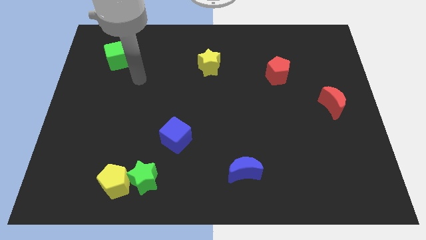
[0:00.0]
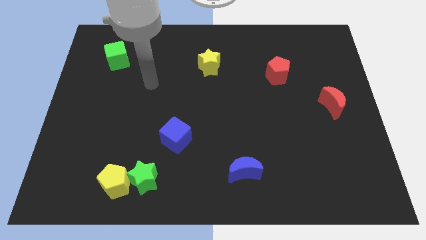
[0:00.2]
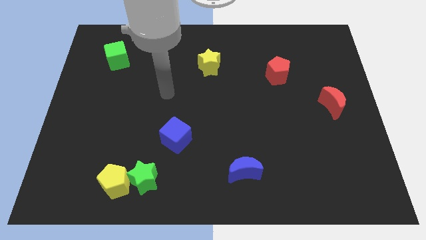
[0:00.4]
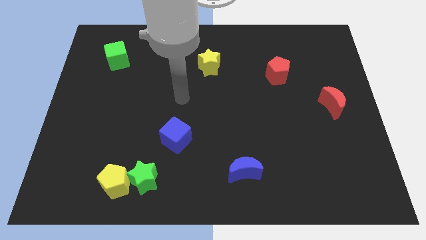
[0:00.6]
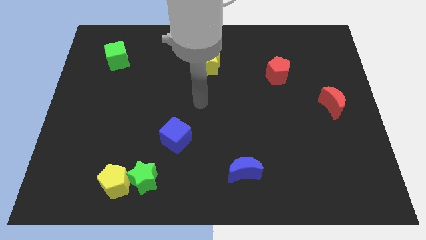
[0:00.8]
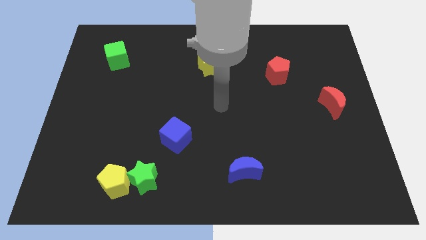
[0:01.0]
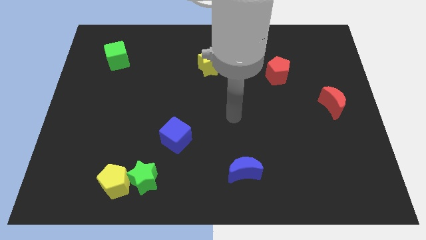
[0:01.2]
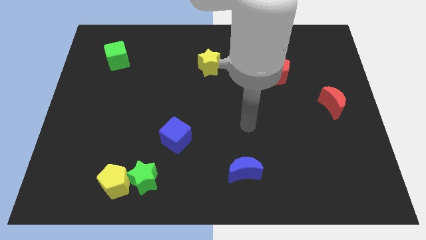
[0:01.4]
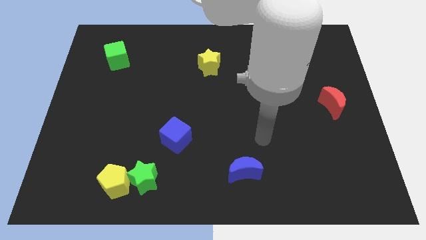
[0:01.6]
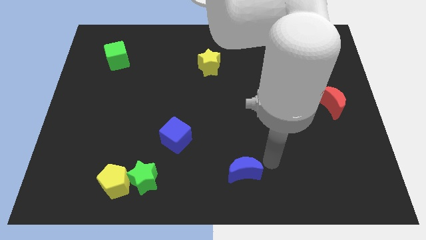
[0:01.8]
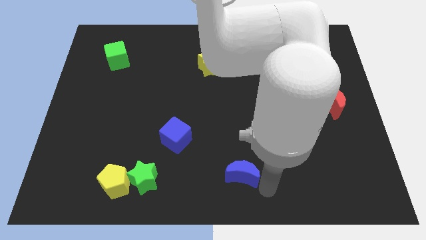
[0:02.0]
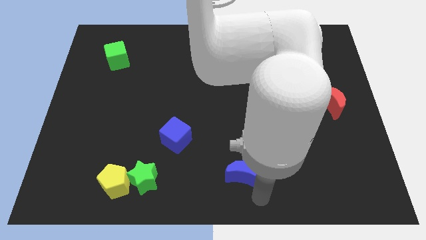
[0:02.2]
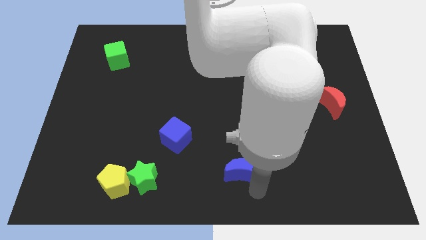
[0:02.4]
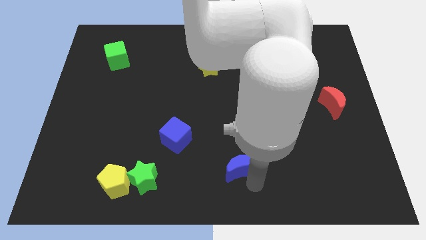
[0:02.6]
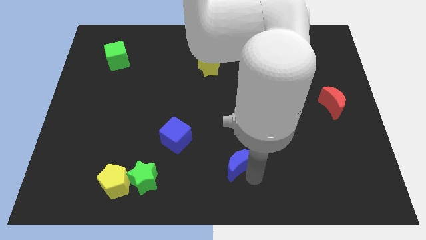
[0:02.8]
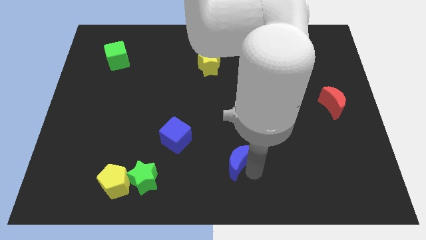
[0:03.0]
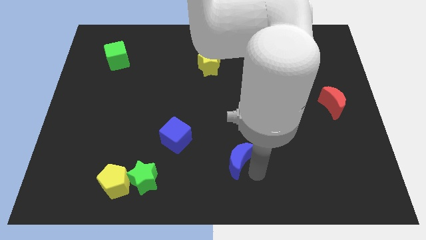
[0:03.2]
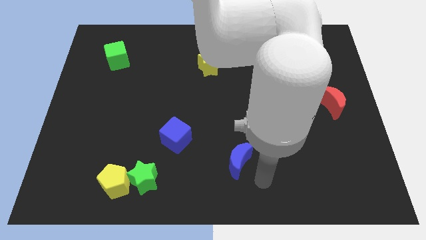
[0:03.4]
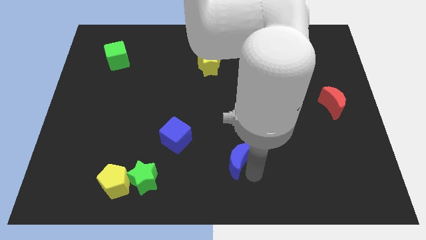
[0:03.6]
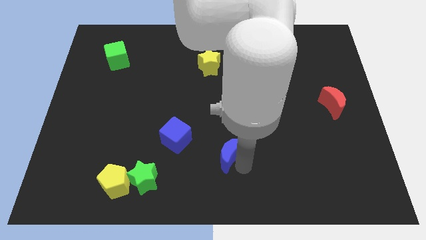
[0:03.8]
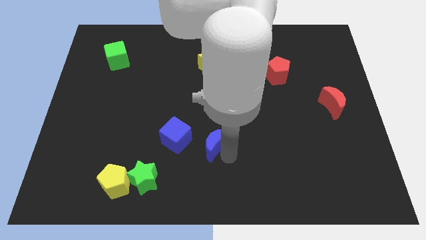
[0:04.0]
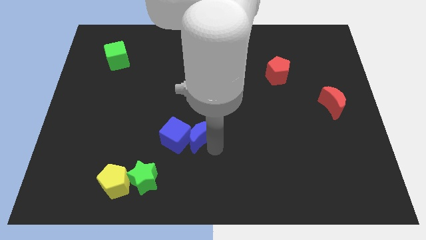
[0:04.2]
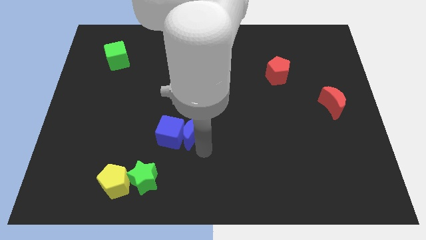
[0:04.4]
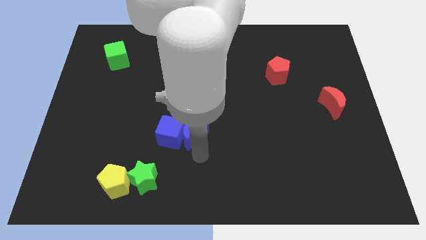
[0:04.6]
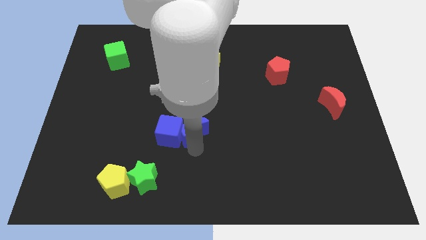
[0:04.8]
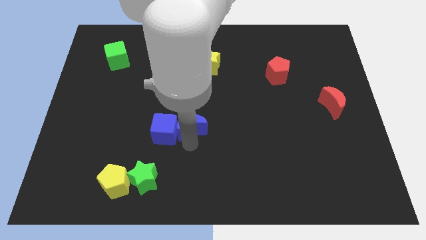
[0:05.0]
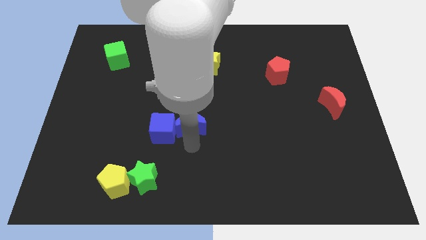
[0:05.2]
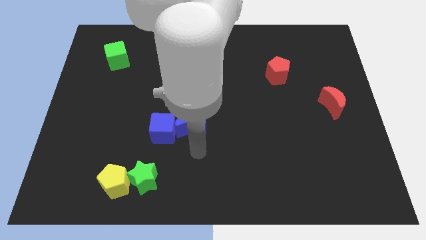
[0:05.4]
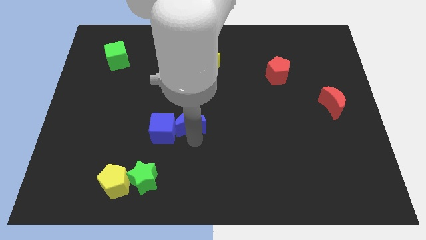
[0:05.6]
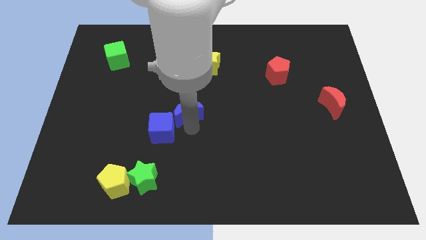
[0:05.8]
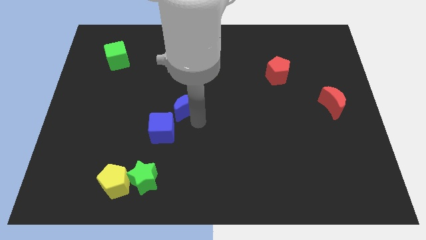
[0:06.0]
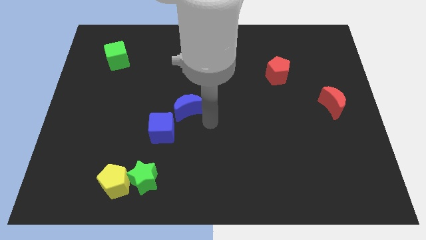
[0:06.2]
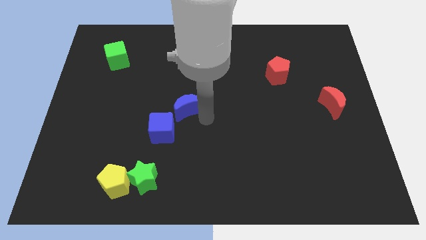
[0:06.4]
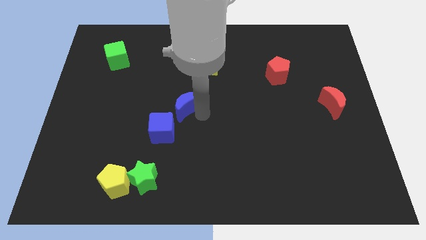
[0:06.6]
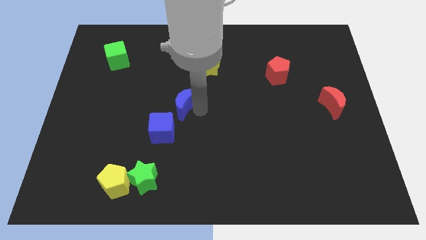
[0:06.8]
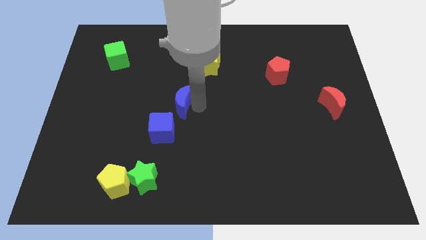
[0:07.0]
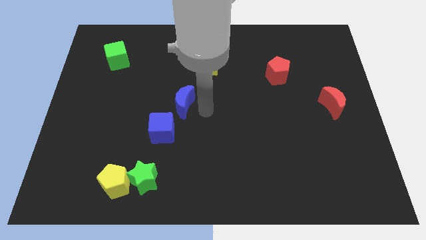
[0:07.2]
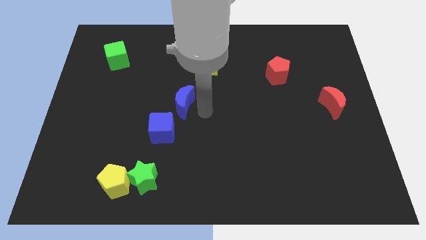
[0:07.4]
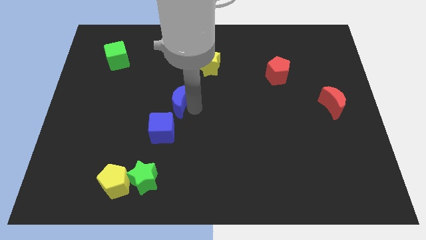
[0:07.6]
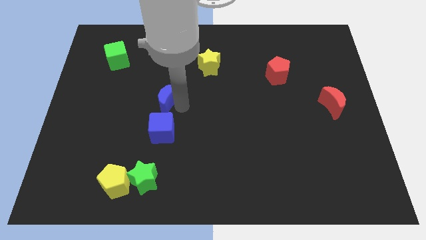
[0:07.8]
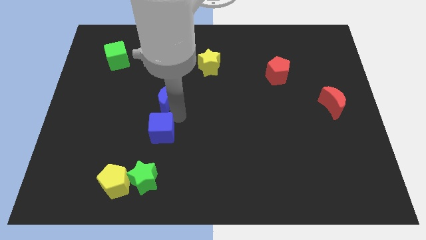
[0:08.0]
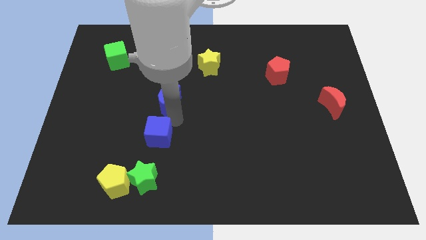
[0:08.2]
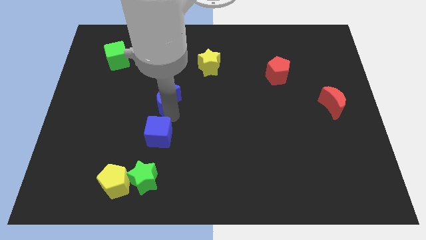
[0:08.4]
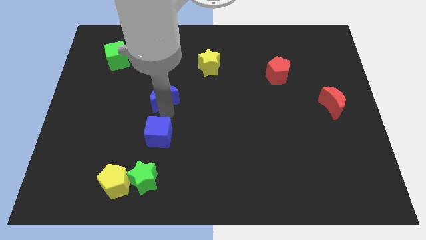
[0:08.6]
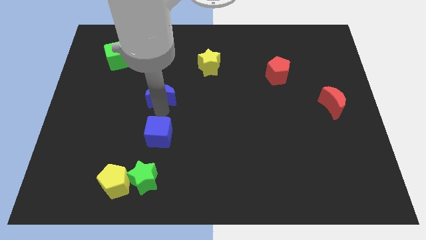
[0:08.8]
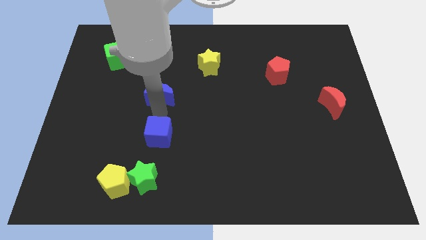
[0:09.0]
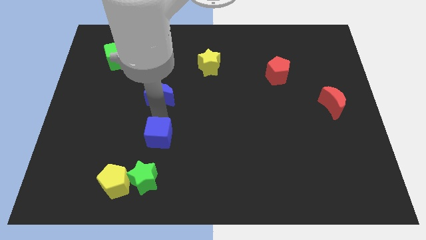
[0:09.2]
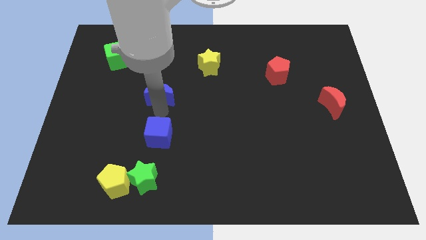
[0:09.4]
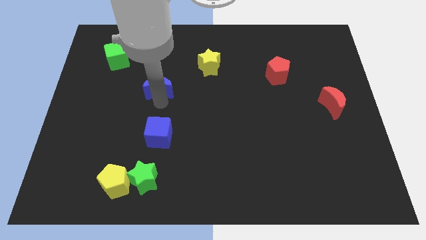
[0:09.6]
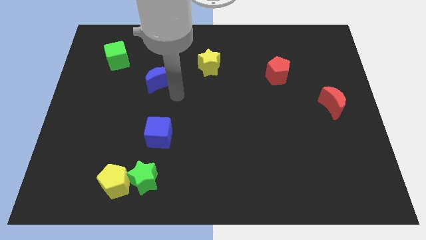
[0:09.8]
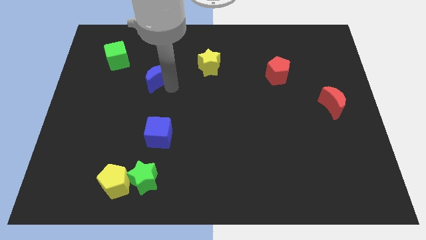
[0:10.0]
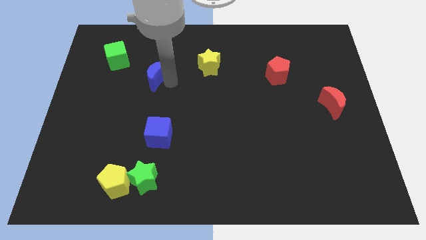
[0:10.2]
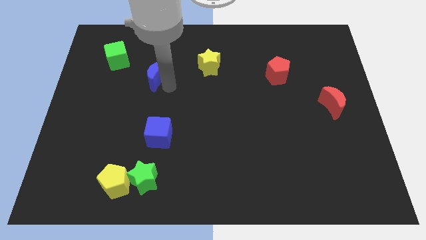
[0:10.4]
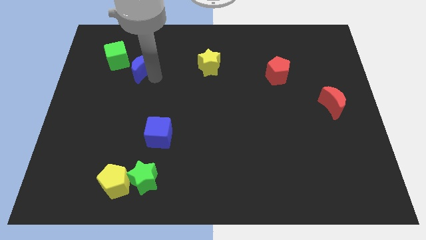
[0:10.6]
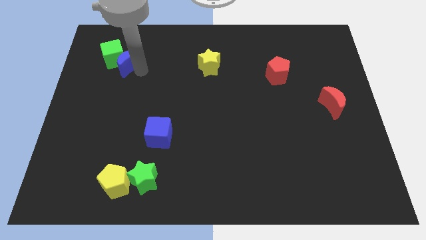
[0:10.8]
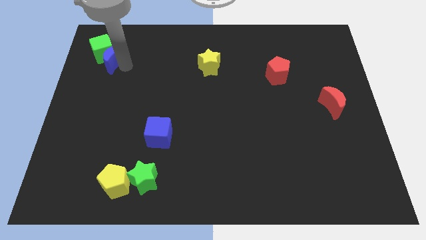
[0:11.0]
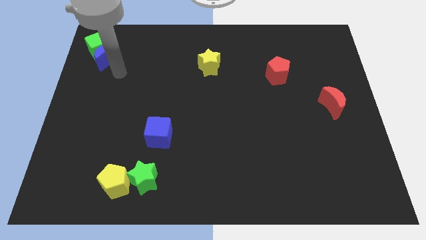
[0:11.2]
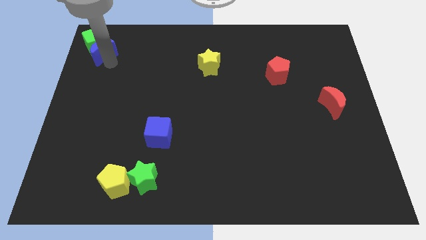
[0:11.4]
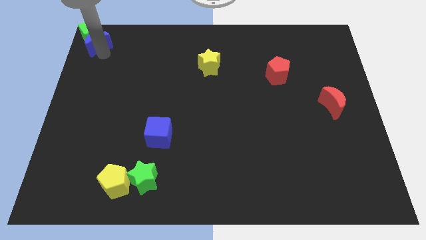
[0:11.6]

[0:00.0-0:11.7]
slide the blue moon to the top left of the board
